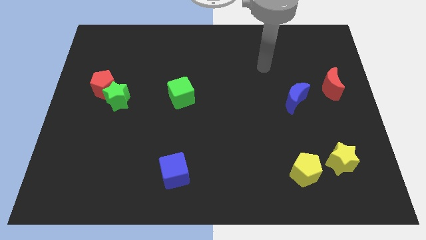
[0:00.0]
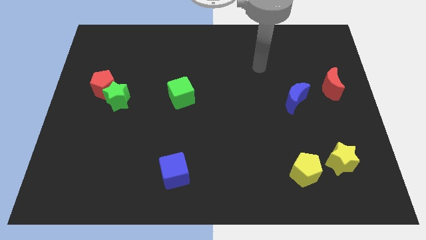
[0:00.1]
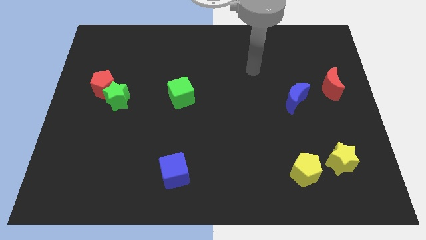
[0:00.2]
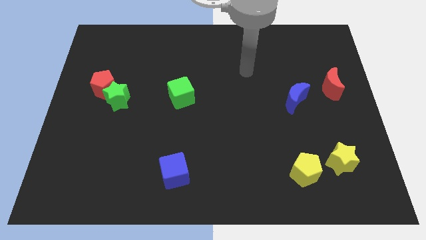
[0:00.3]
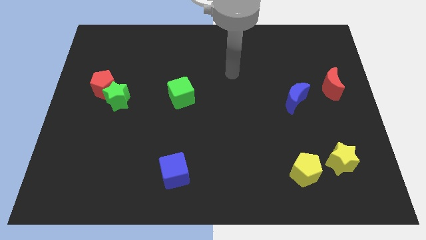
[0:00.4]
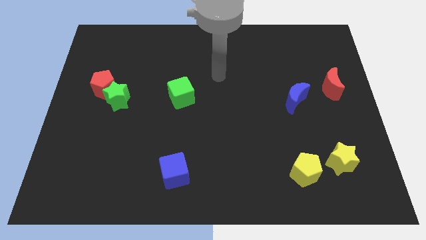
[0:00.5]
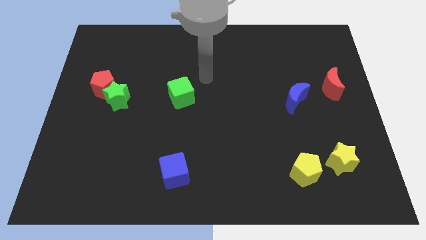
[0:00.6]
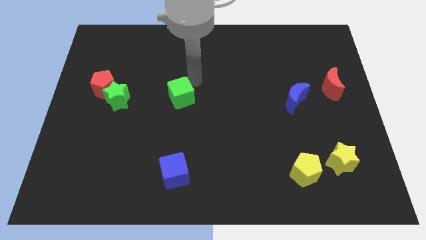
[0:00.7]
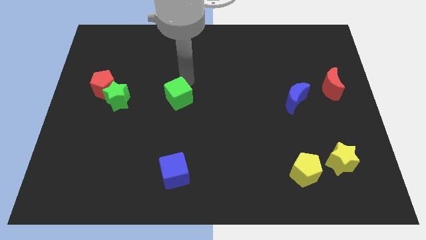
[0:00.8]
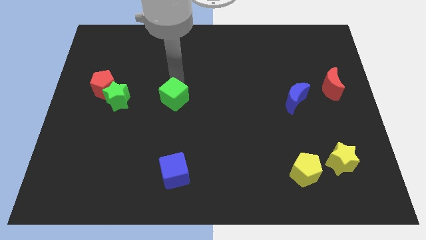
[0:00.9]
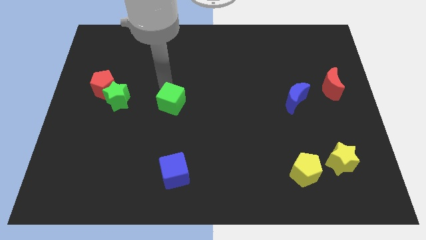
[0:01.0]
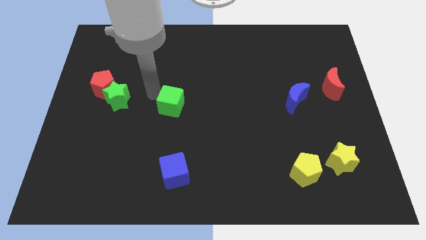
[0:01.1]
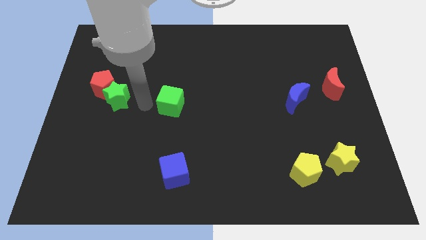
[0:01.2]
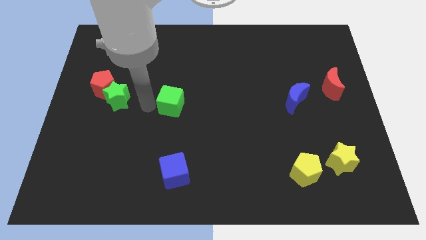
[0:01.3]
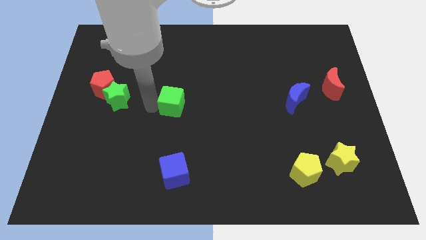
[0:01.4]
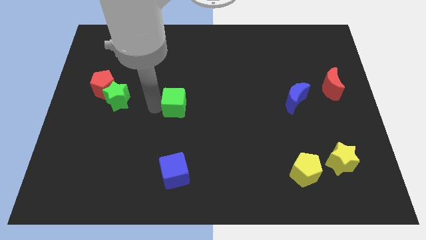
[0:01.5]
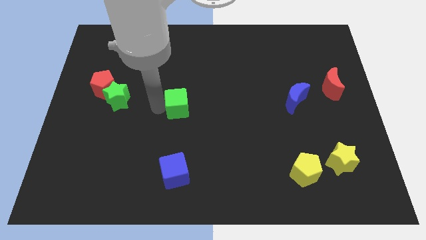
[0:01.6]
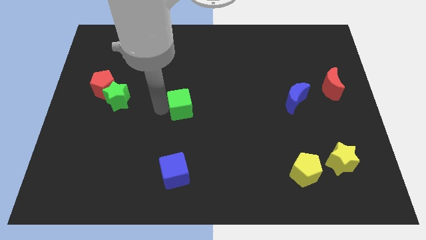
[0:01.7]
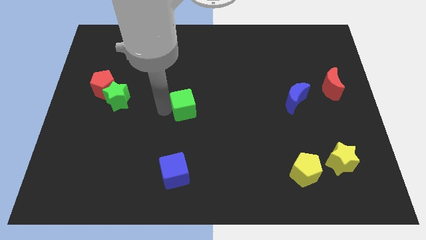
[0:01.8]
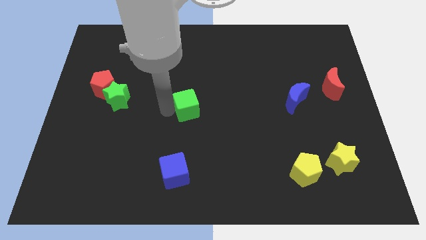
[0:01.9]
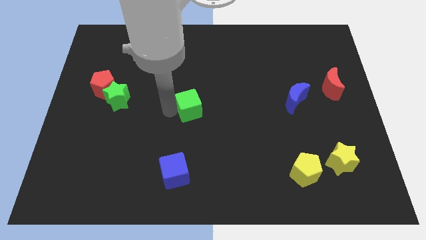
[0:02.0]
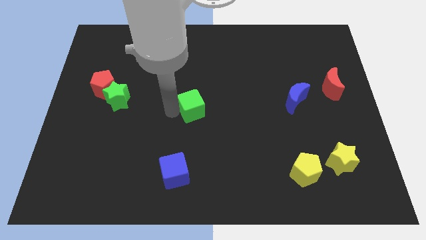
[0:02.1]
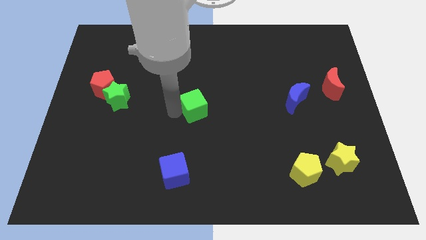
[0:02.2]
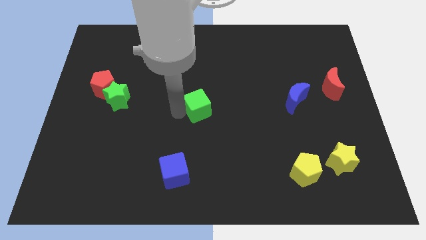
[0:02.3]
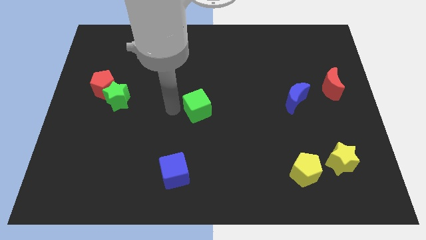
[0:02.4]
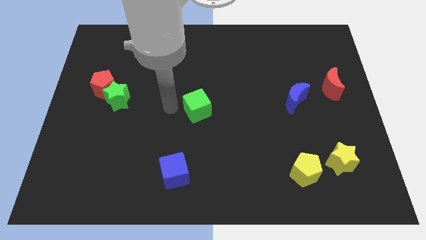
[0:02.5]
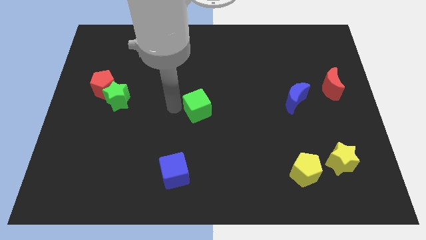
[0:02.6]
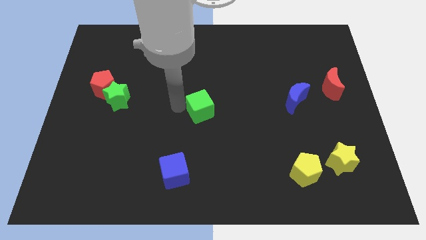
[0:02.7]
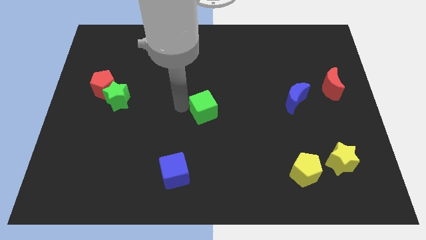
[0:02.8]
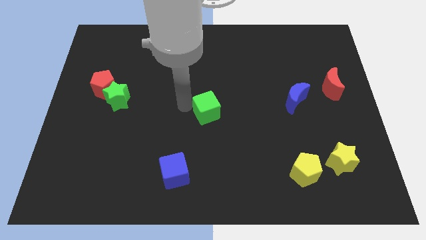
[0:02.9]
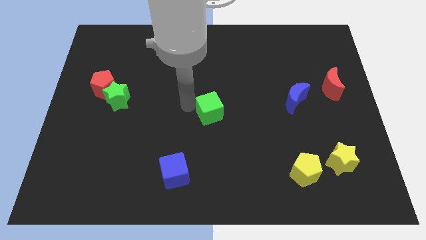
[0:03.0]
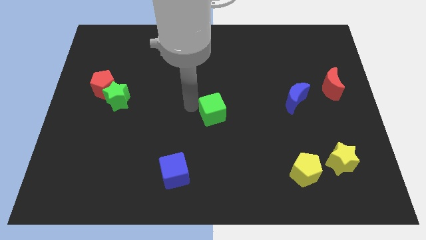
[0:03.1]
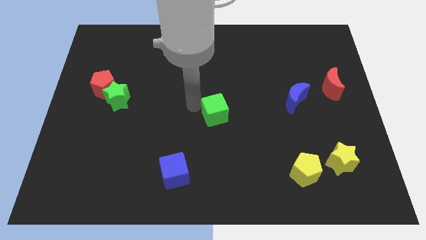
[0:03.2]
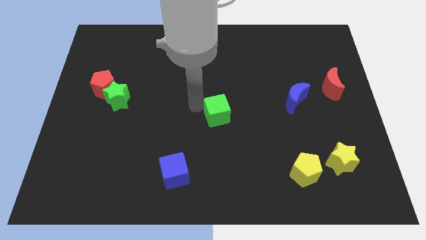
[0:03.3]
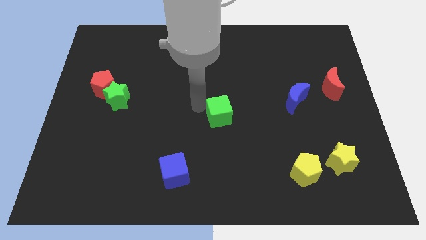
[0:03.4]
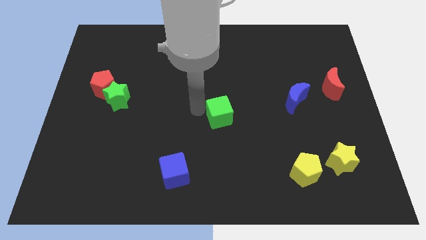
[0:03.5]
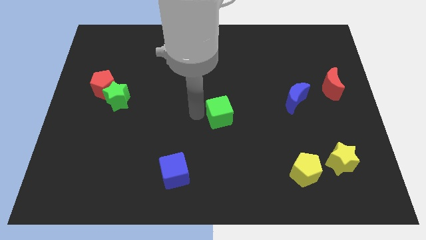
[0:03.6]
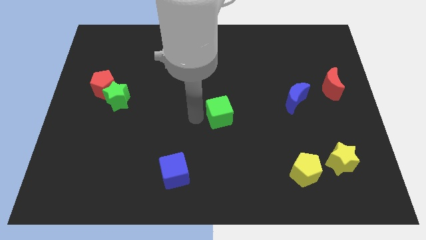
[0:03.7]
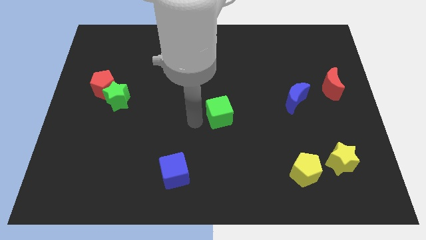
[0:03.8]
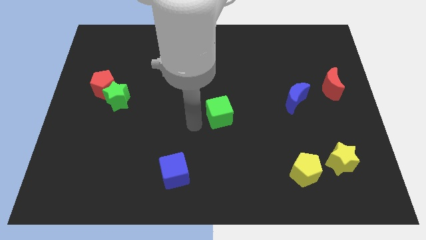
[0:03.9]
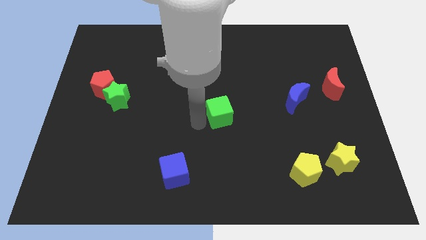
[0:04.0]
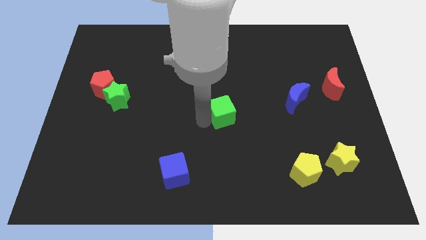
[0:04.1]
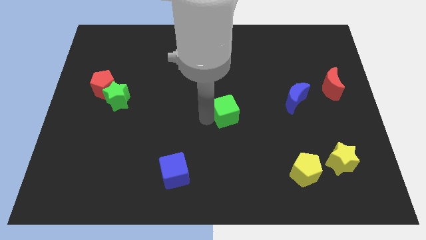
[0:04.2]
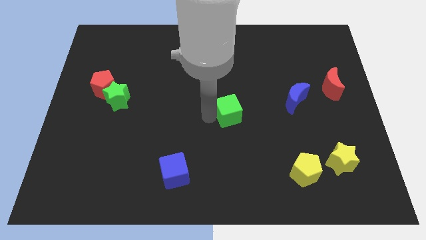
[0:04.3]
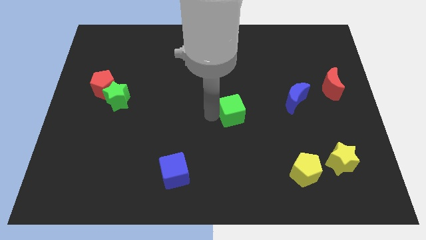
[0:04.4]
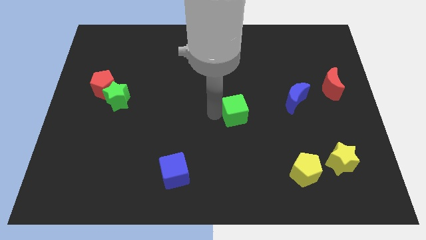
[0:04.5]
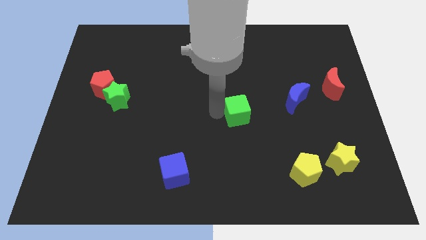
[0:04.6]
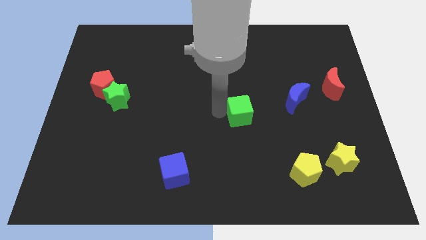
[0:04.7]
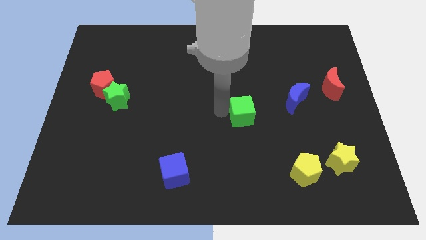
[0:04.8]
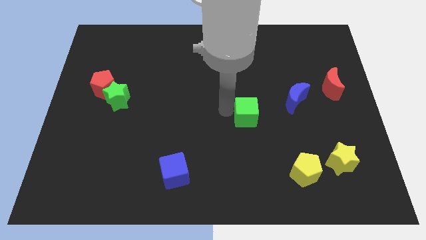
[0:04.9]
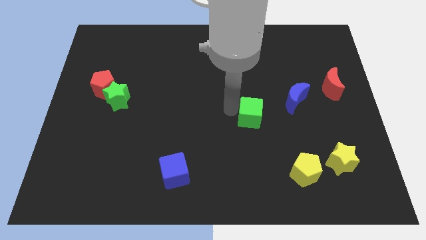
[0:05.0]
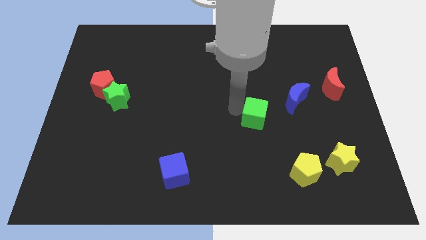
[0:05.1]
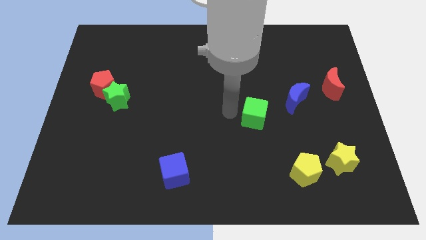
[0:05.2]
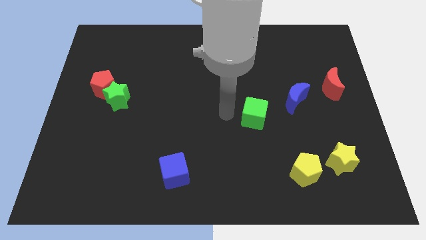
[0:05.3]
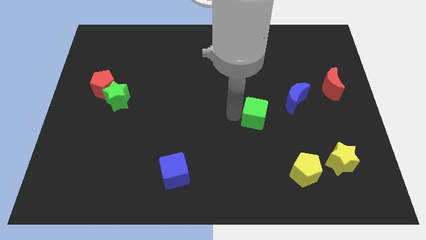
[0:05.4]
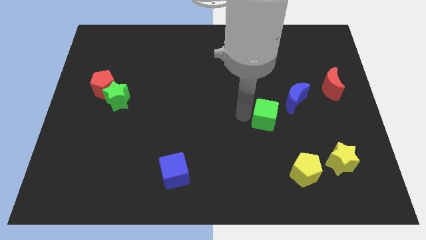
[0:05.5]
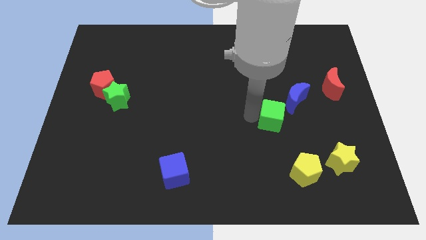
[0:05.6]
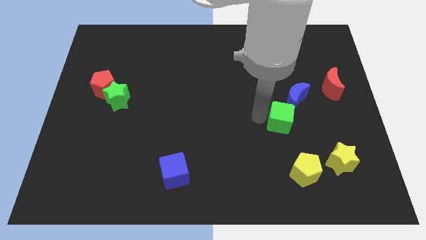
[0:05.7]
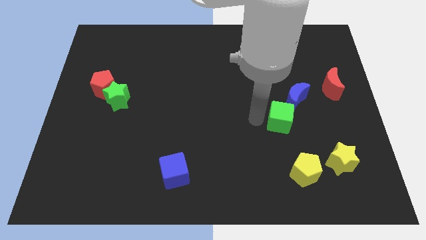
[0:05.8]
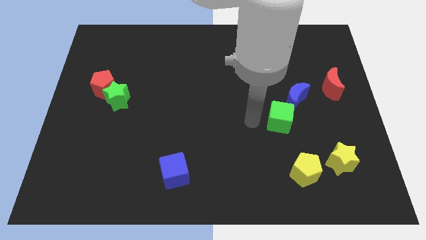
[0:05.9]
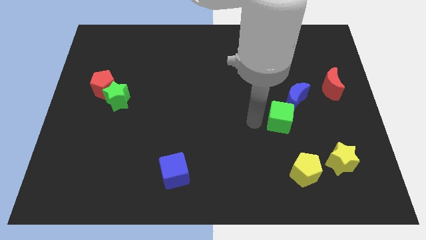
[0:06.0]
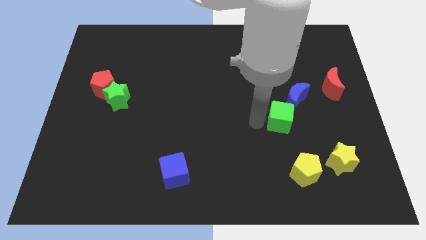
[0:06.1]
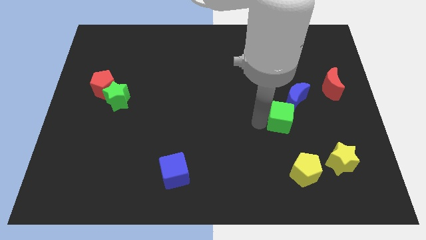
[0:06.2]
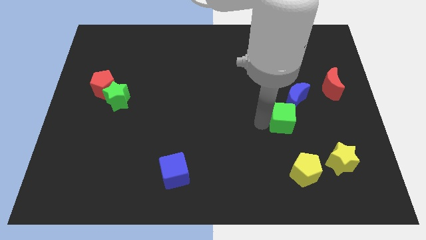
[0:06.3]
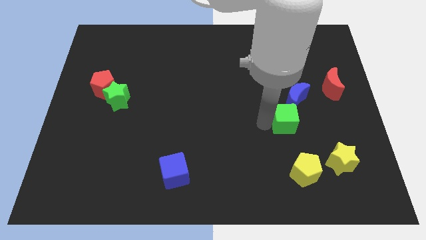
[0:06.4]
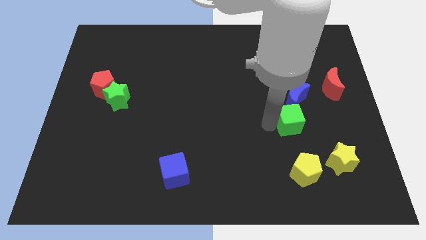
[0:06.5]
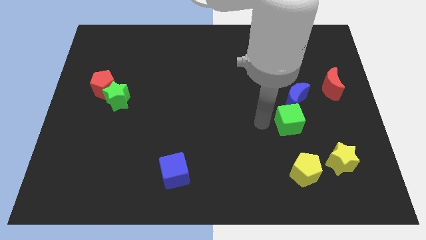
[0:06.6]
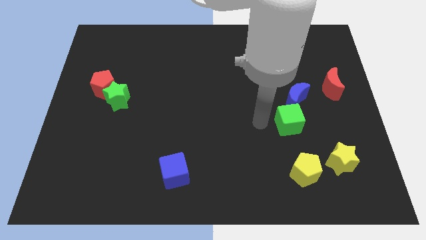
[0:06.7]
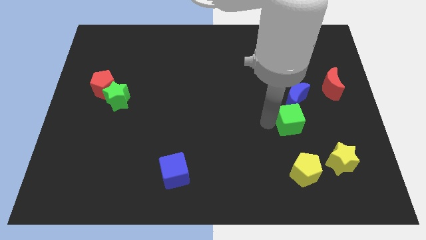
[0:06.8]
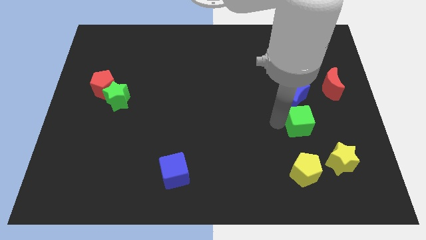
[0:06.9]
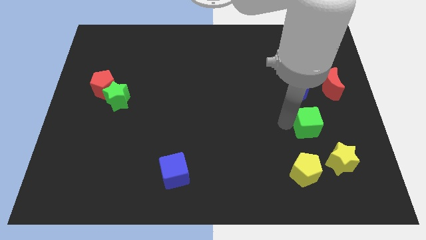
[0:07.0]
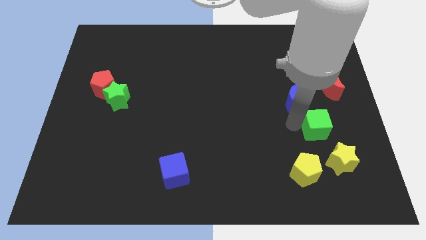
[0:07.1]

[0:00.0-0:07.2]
put the green cube to the top side of the yellow star
